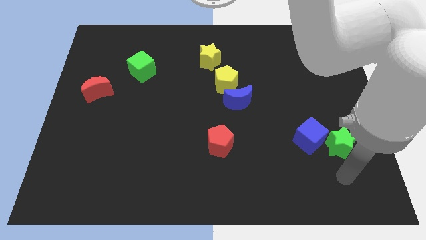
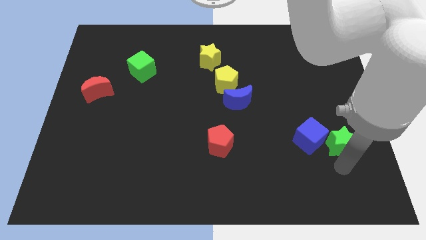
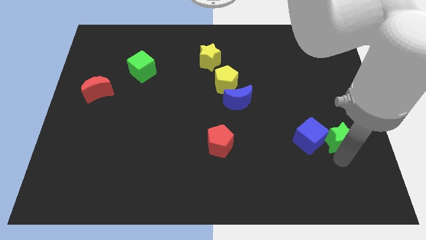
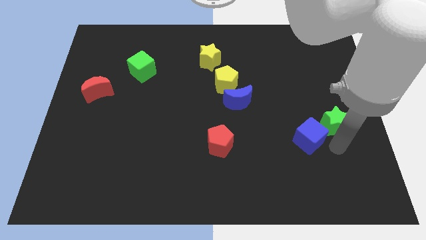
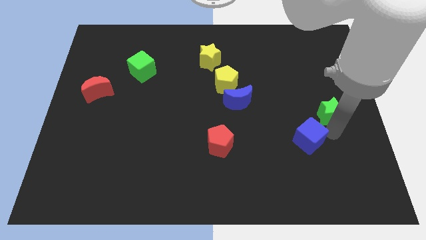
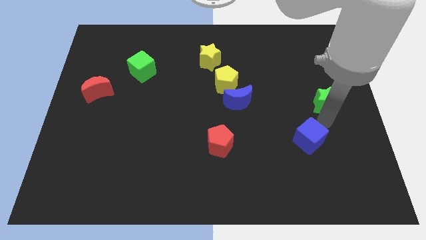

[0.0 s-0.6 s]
pull the blue cube apart from the green star

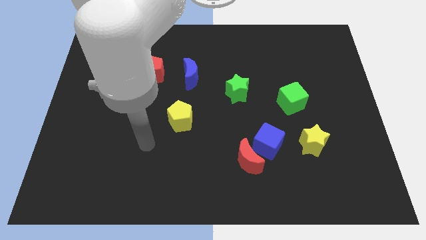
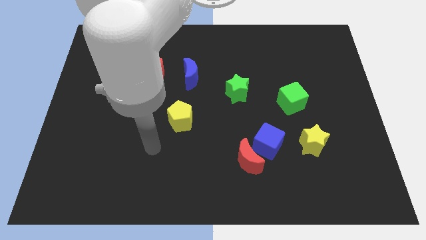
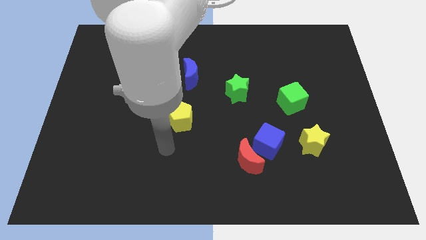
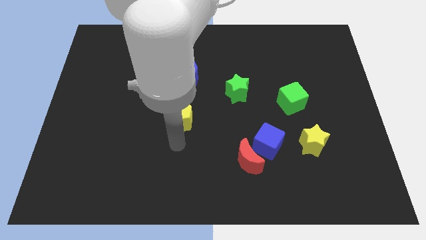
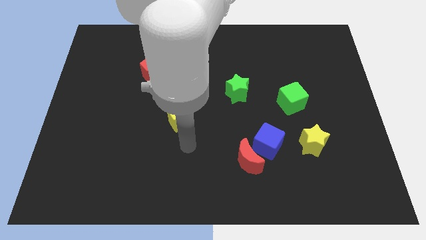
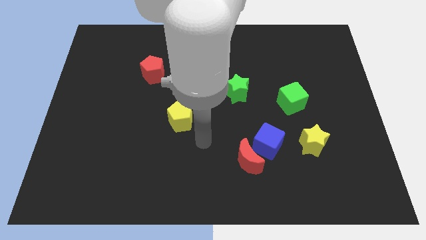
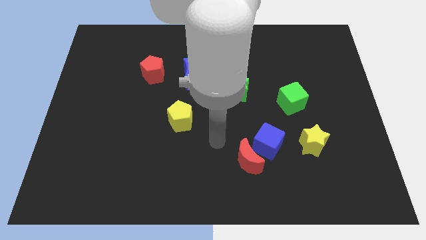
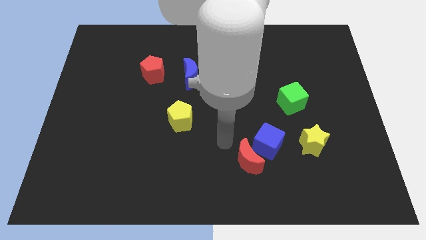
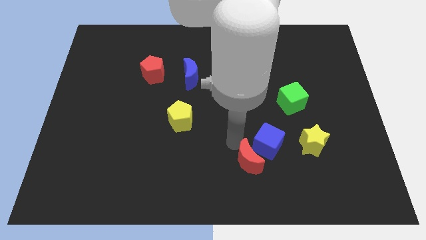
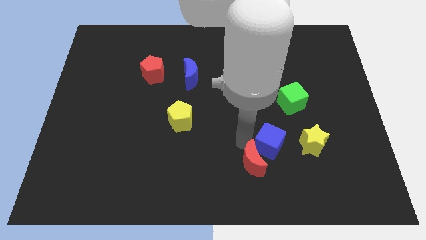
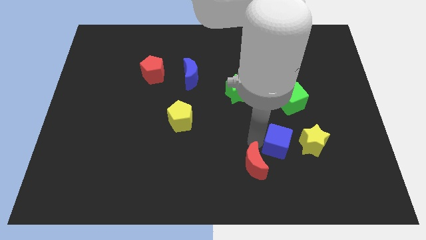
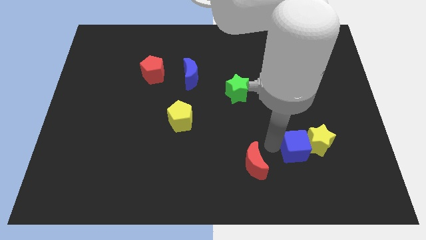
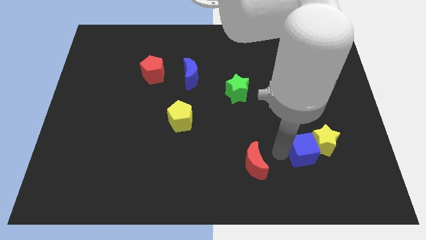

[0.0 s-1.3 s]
separate the red moon from the blue cube

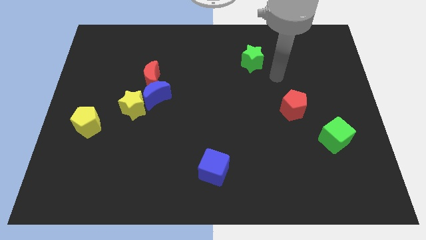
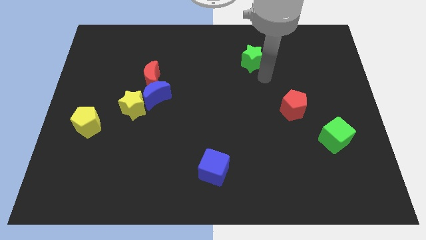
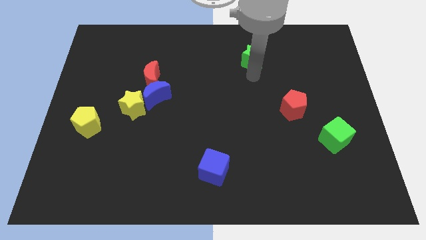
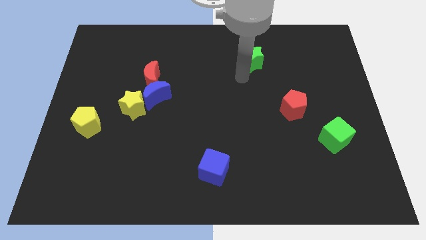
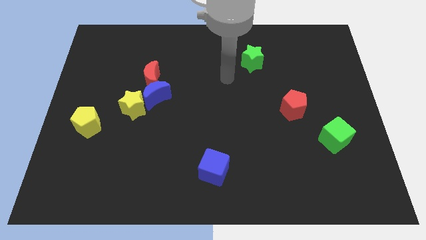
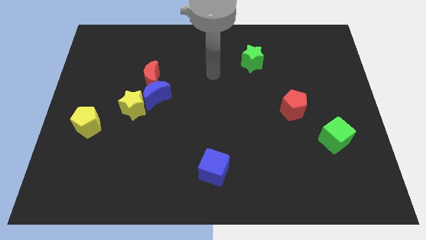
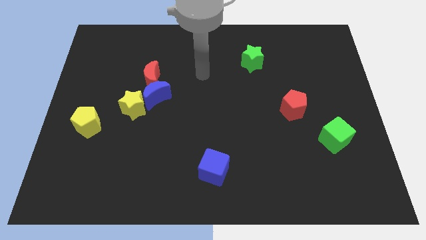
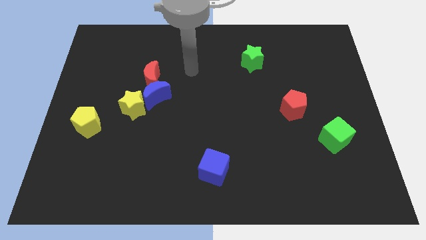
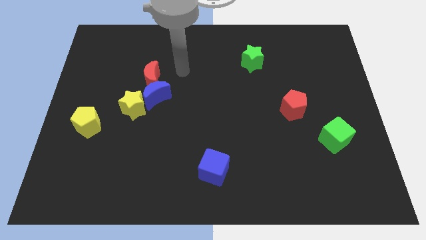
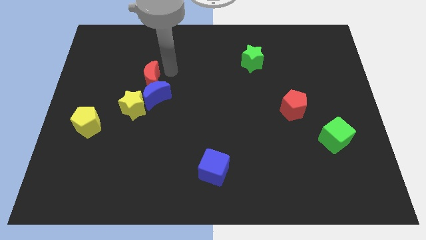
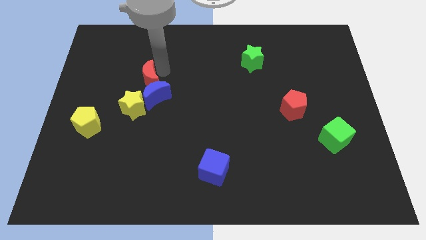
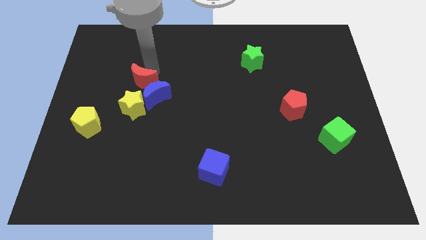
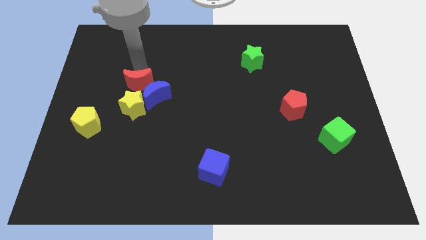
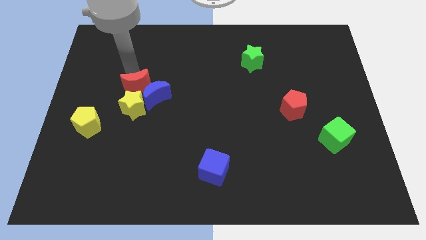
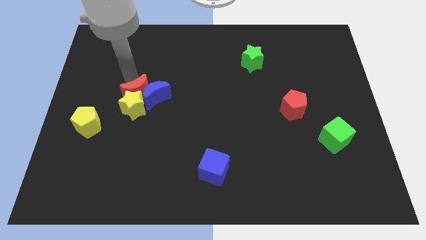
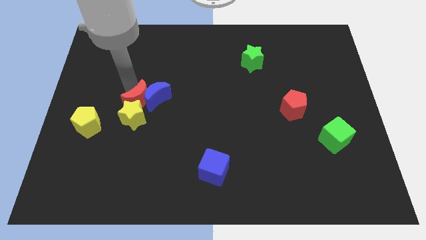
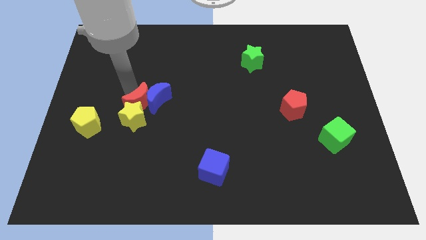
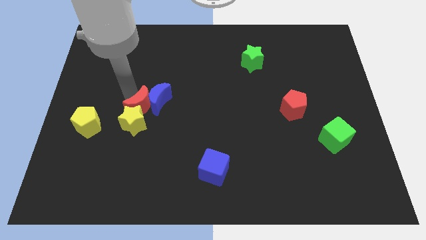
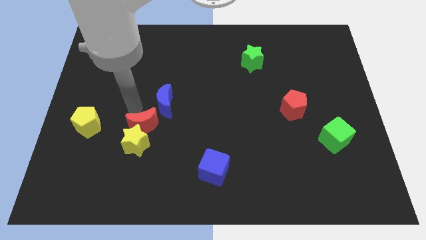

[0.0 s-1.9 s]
separate the blue moon from the red moon and yellow star

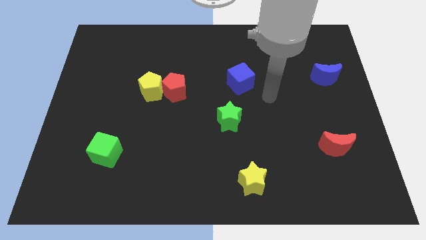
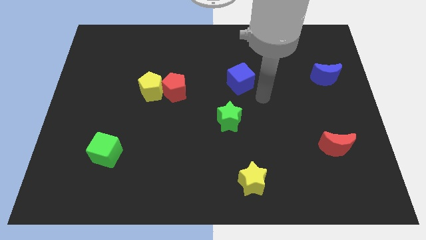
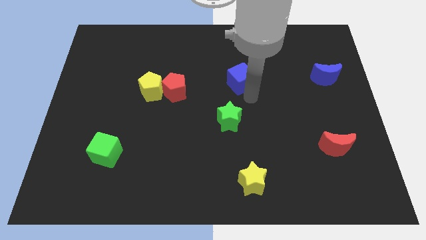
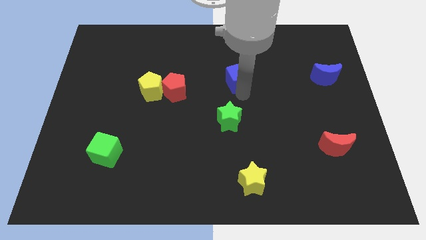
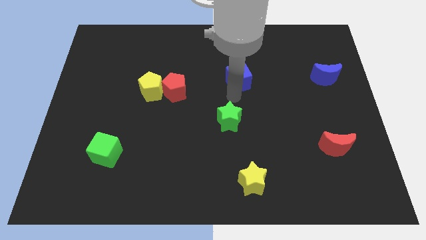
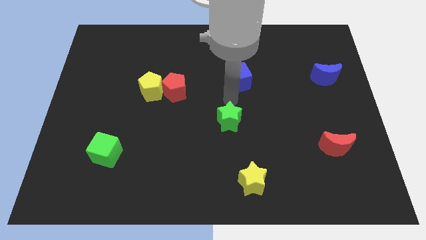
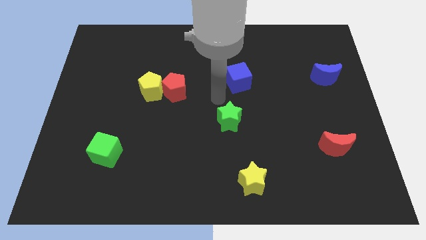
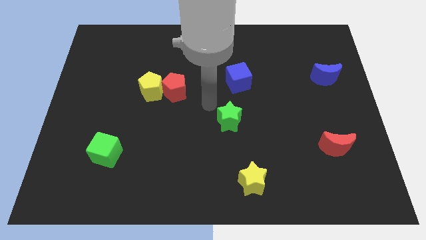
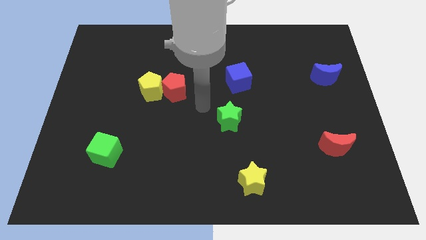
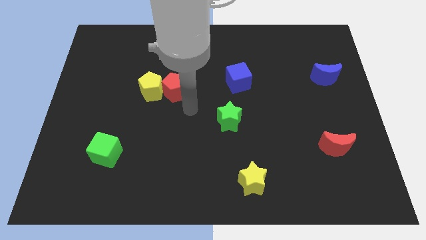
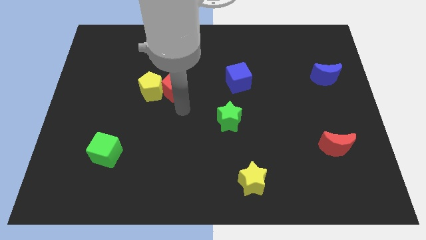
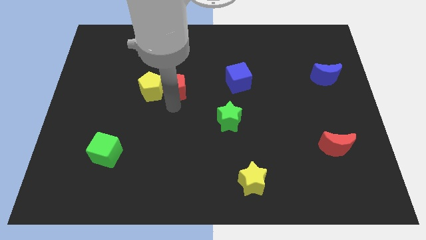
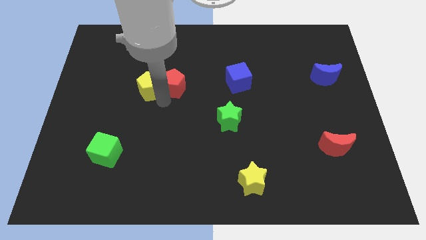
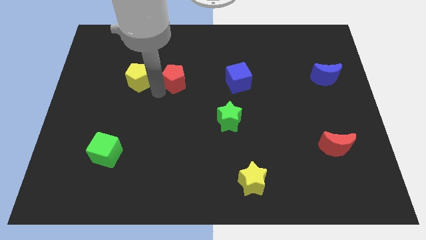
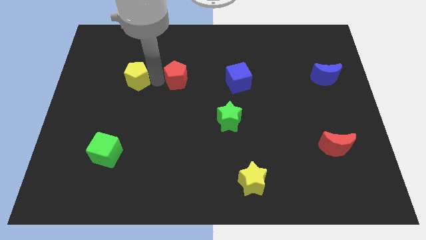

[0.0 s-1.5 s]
separate the red pentagon from the yellow pentagon

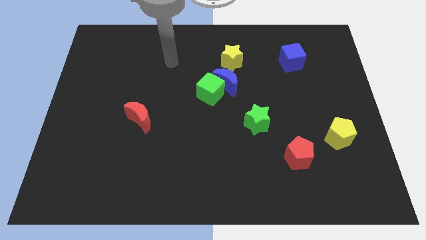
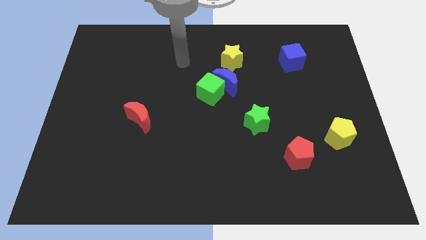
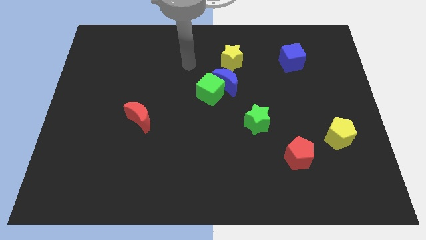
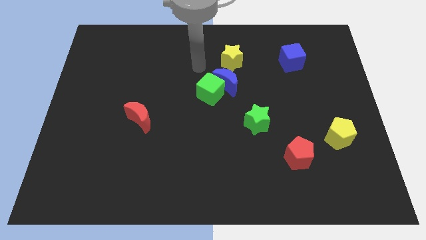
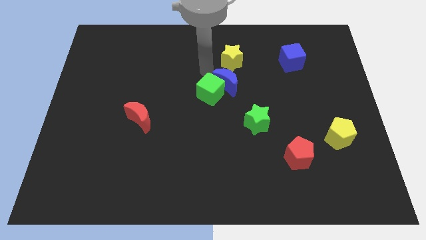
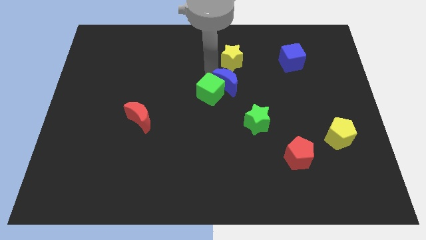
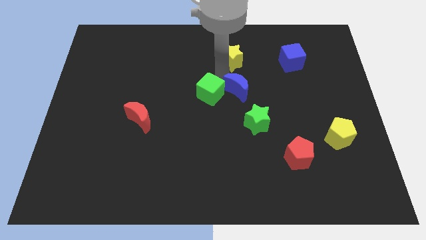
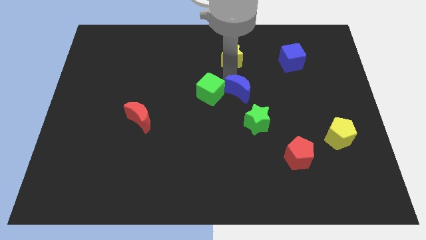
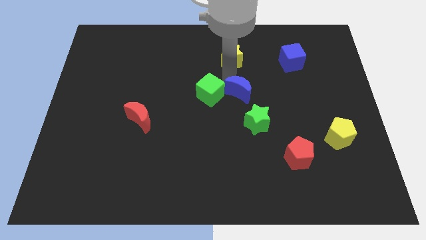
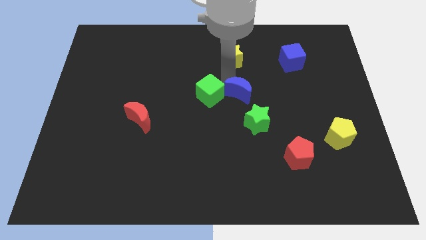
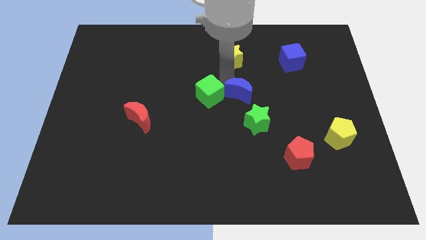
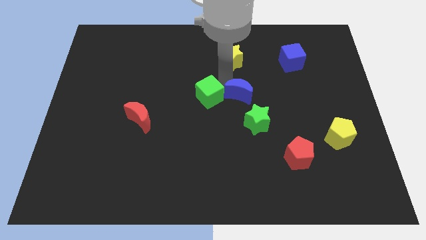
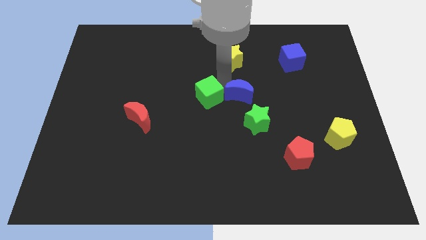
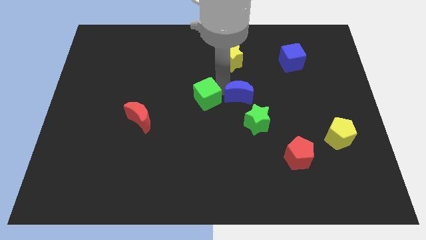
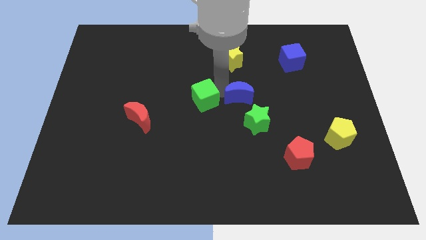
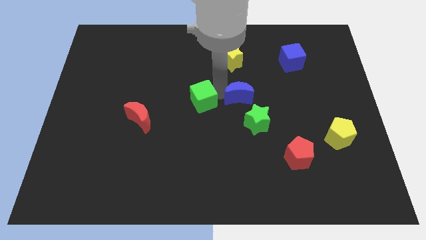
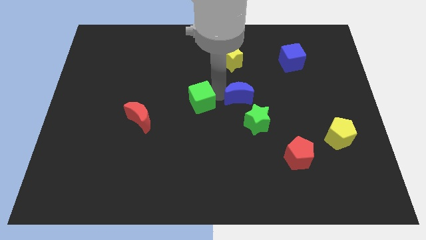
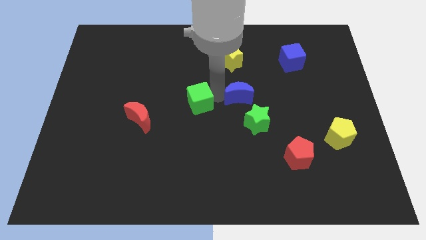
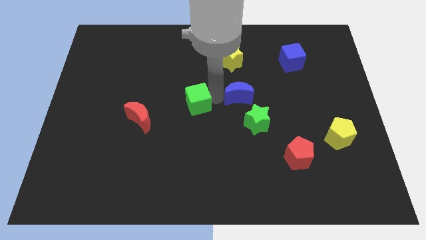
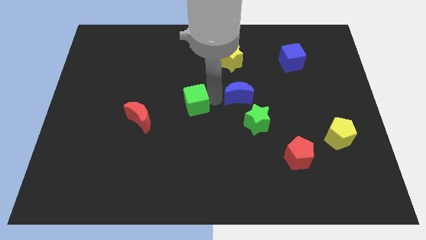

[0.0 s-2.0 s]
pull the green cube apart from the blue moon

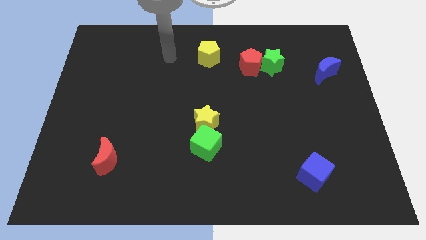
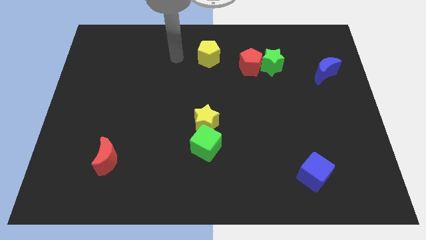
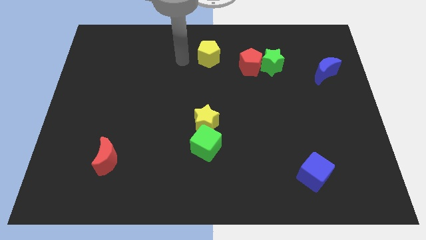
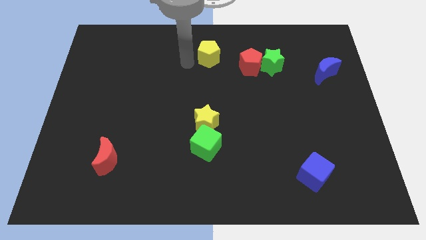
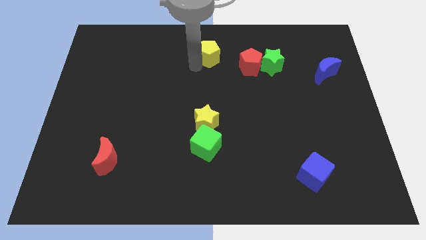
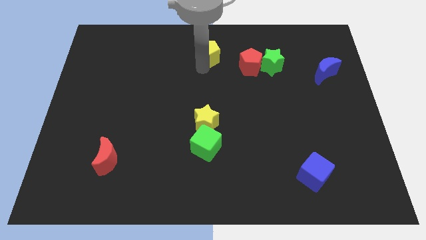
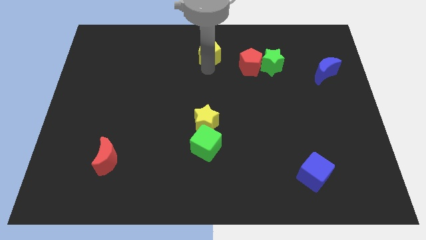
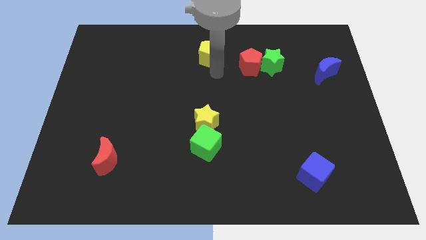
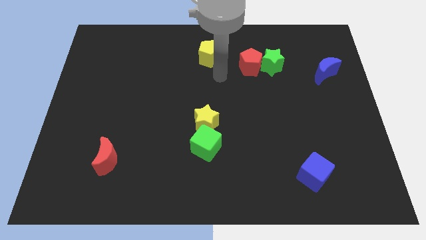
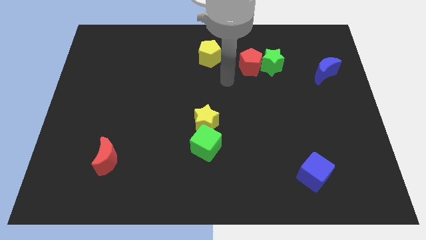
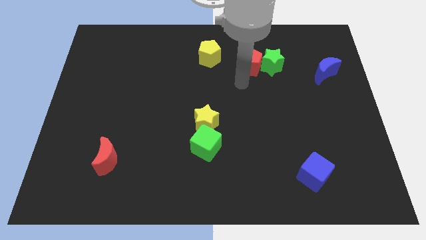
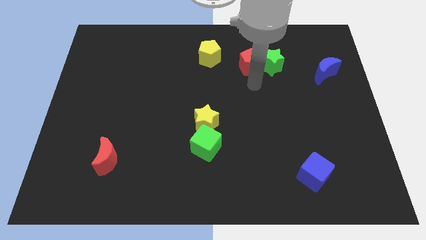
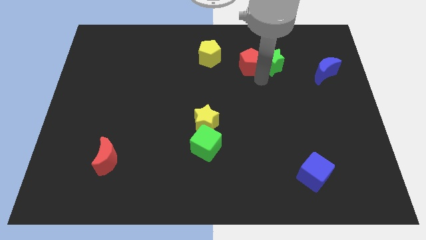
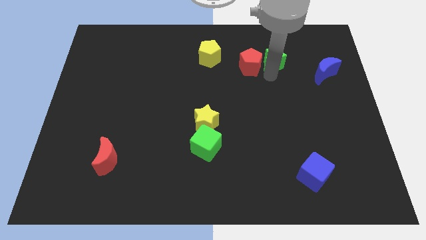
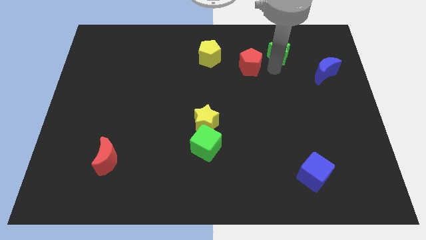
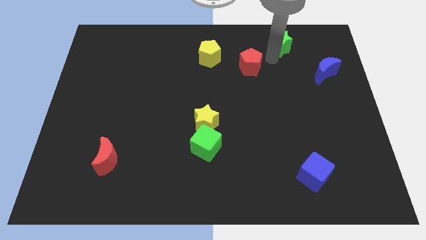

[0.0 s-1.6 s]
pull the red pentagon apart from the green star

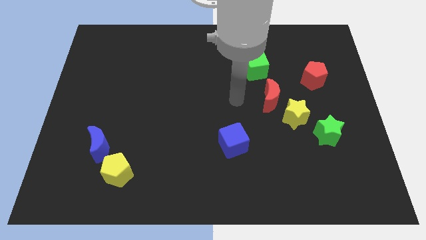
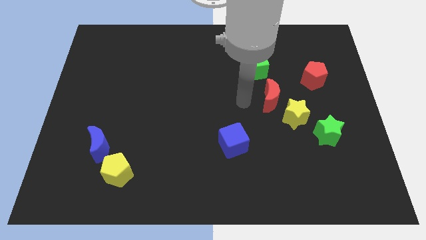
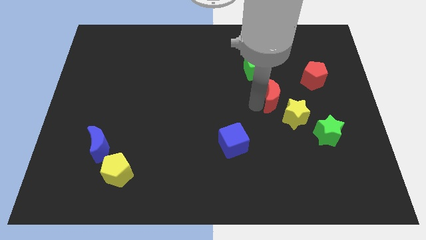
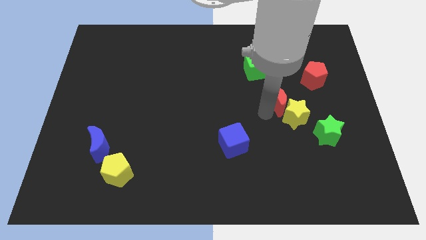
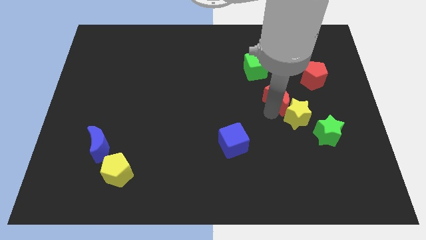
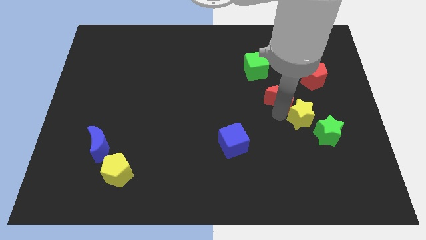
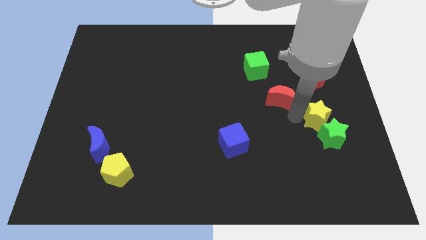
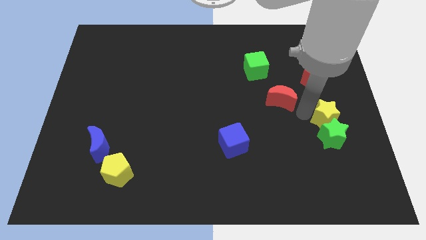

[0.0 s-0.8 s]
move the red moon away from the yellow star
